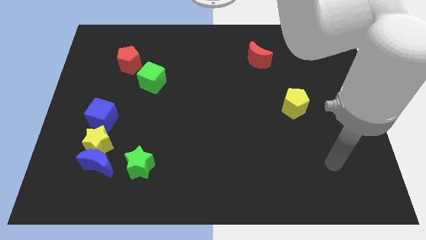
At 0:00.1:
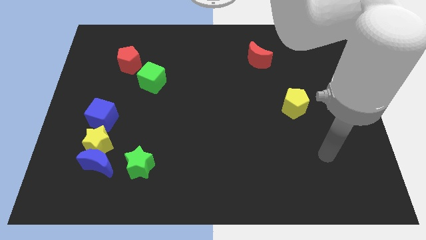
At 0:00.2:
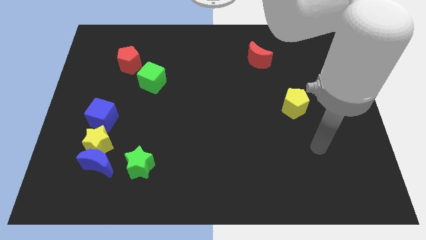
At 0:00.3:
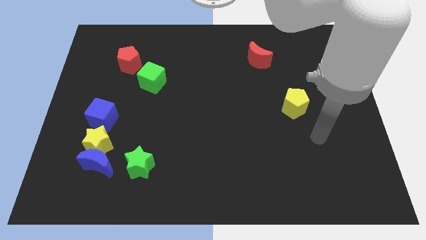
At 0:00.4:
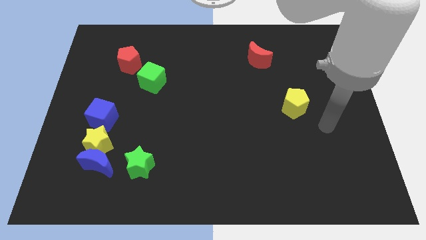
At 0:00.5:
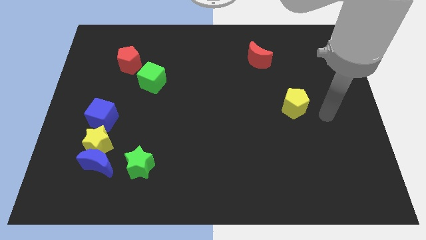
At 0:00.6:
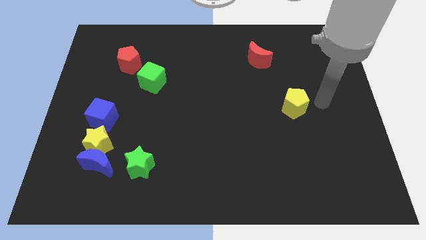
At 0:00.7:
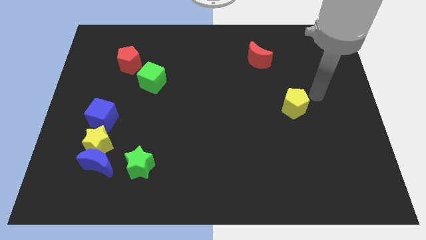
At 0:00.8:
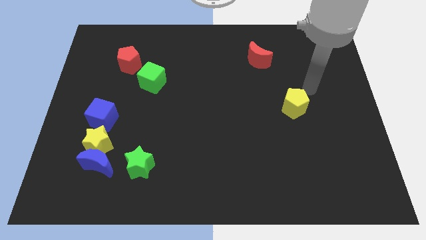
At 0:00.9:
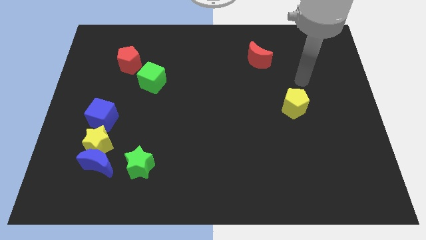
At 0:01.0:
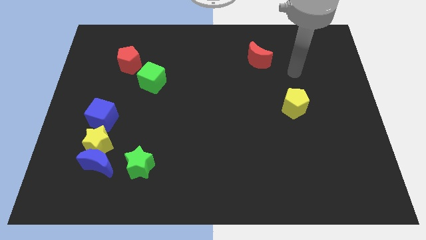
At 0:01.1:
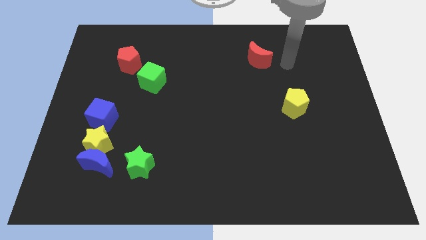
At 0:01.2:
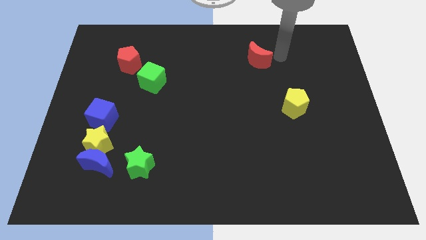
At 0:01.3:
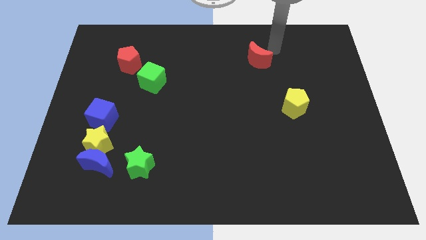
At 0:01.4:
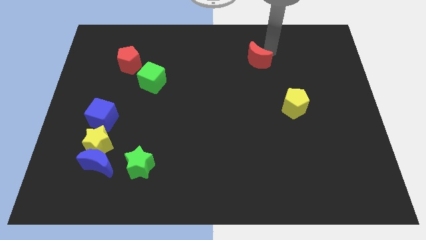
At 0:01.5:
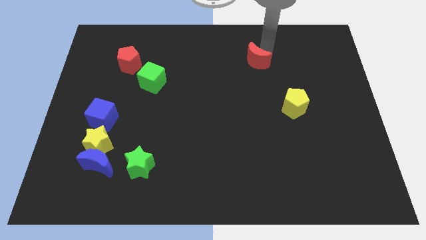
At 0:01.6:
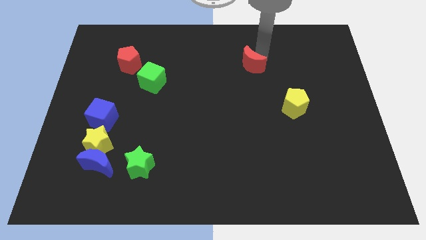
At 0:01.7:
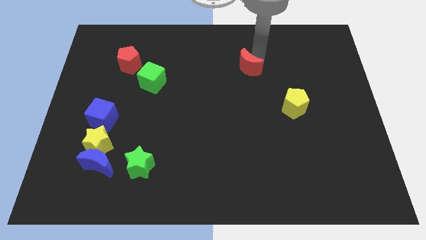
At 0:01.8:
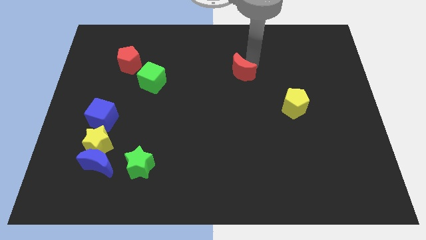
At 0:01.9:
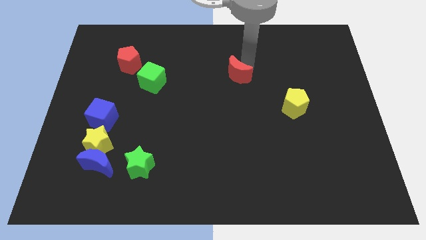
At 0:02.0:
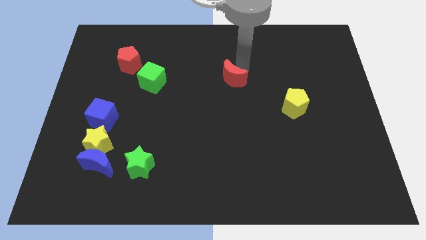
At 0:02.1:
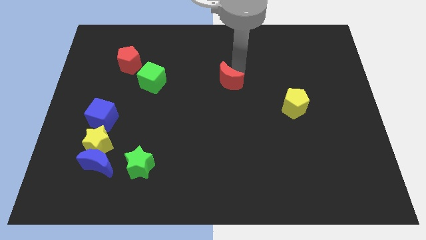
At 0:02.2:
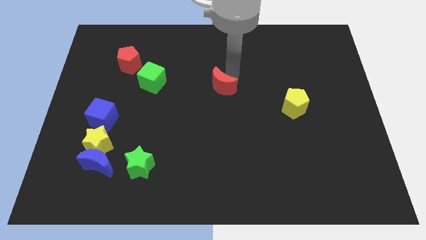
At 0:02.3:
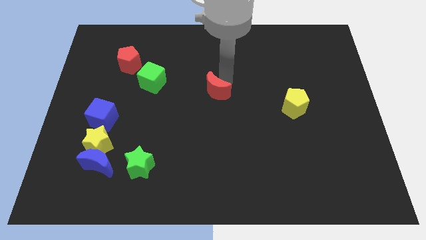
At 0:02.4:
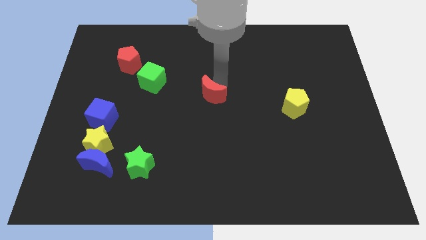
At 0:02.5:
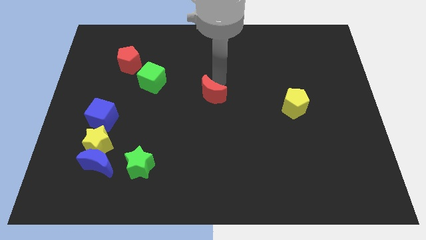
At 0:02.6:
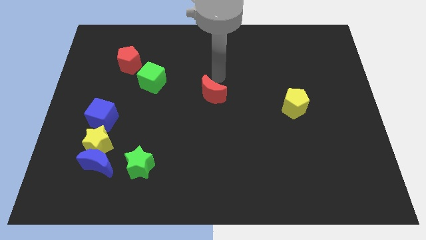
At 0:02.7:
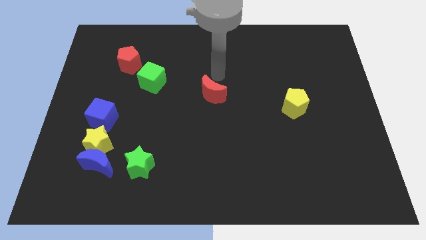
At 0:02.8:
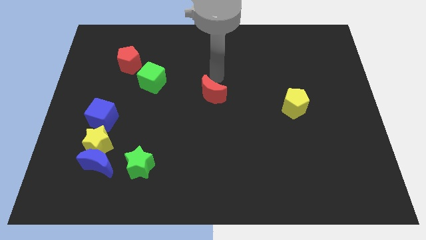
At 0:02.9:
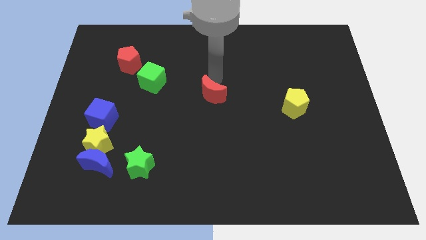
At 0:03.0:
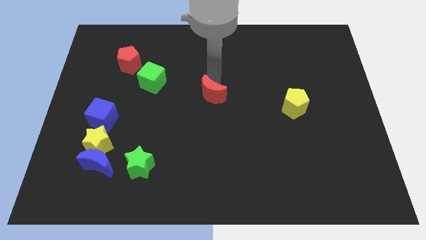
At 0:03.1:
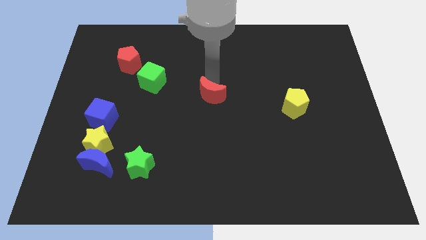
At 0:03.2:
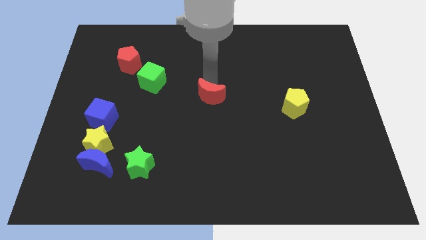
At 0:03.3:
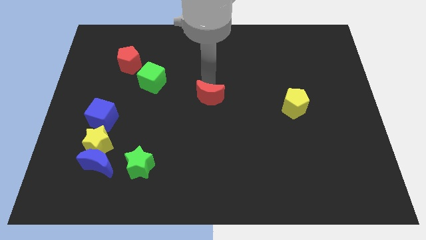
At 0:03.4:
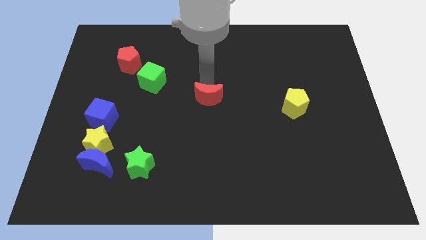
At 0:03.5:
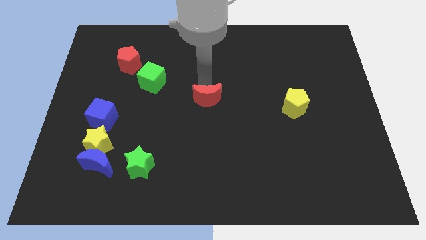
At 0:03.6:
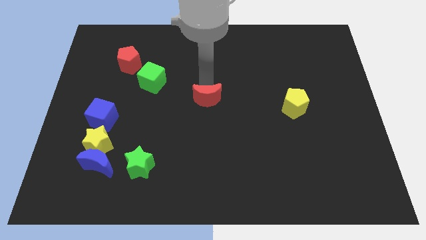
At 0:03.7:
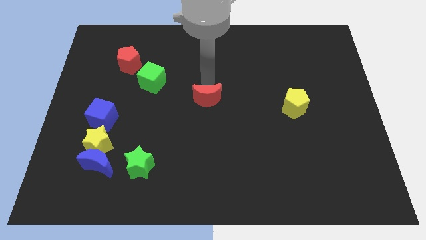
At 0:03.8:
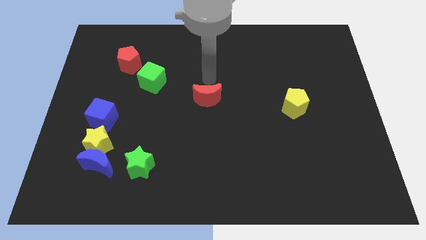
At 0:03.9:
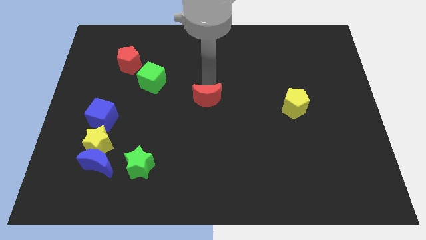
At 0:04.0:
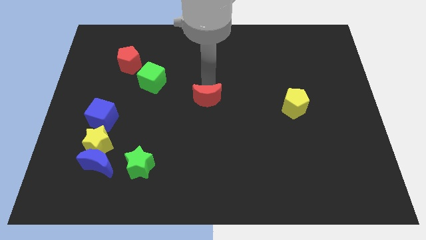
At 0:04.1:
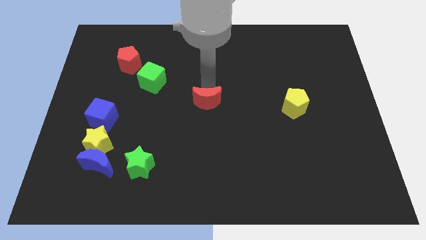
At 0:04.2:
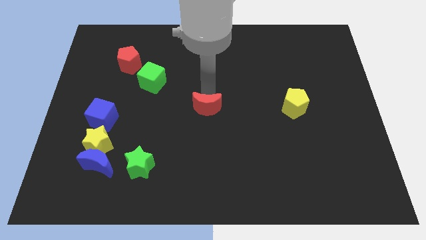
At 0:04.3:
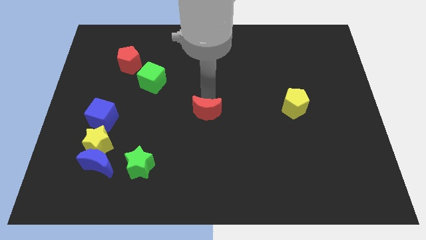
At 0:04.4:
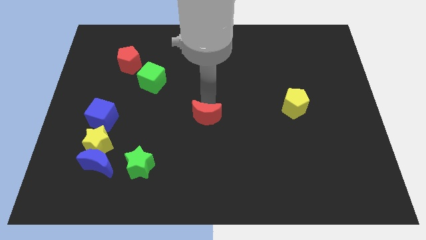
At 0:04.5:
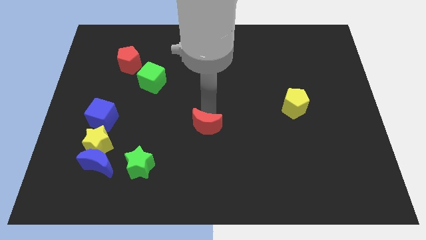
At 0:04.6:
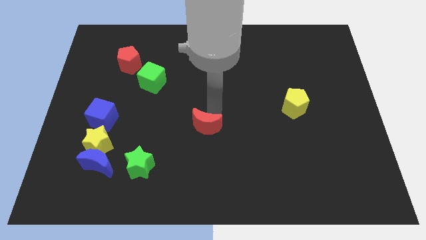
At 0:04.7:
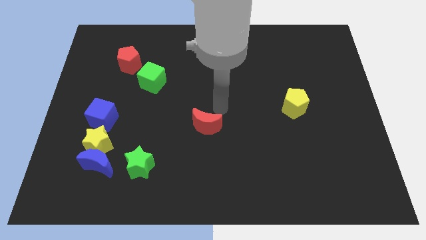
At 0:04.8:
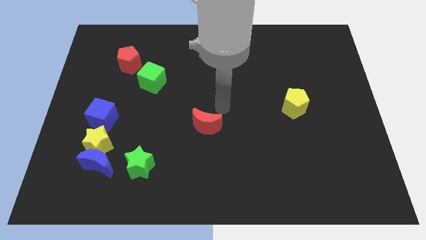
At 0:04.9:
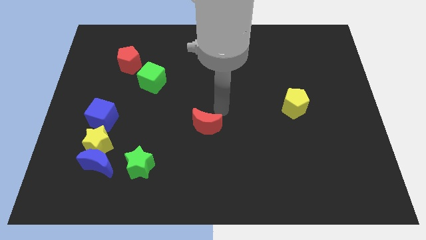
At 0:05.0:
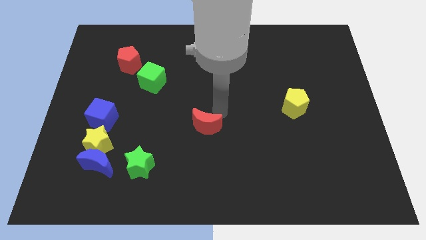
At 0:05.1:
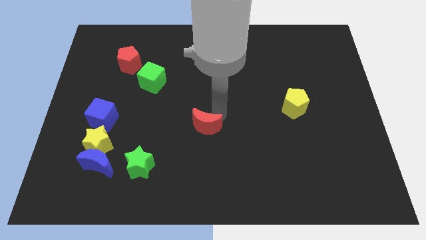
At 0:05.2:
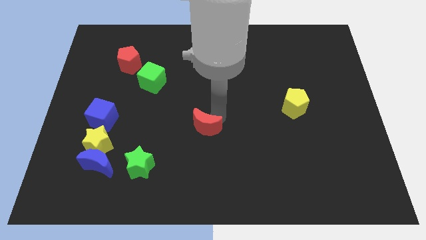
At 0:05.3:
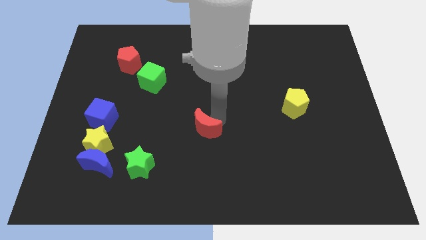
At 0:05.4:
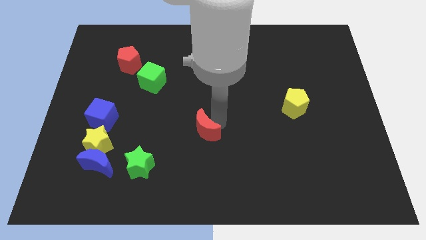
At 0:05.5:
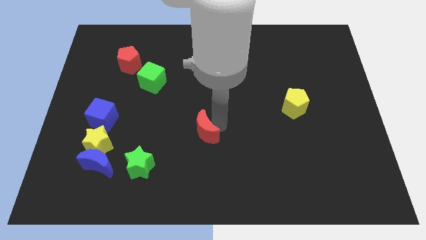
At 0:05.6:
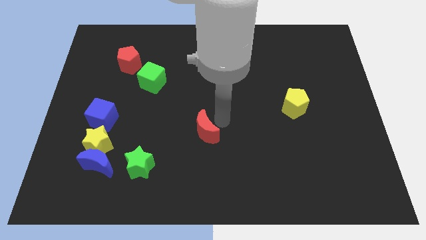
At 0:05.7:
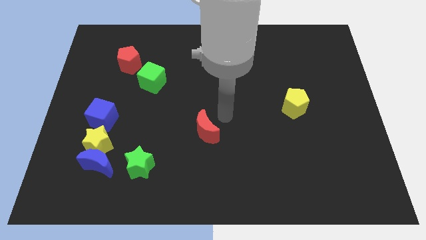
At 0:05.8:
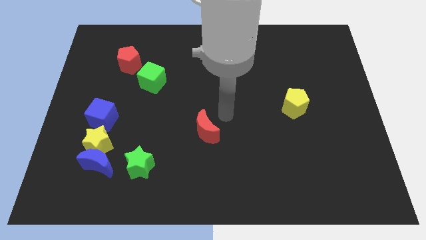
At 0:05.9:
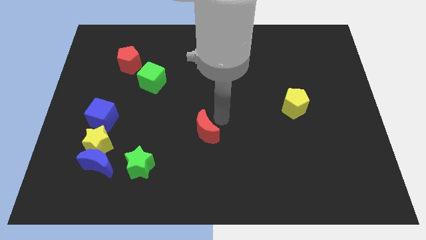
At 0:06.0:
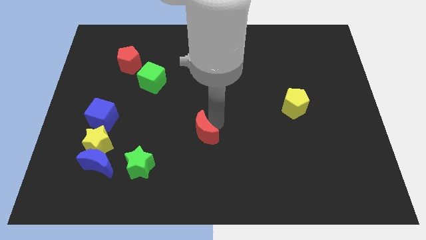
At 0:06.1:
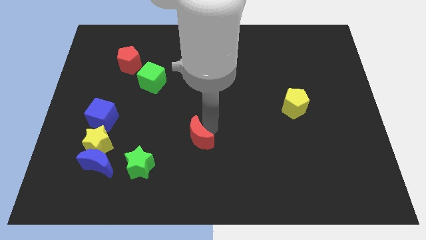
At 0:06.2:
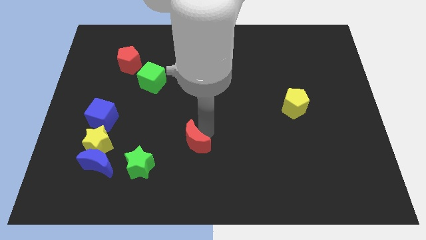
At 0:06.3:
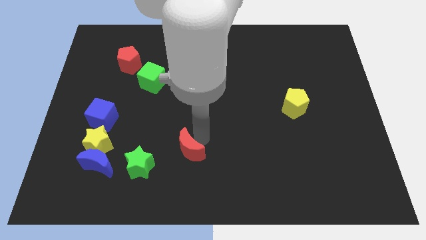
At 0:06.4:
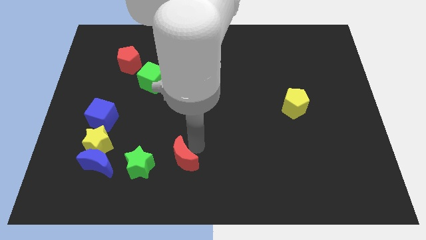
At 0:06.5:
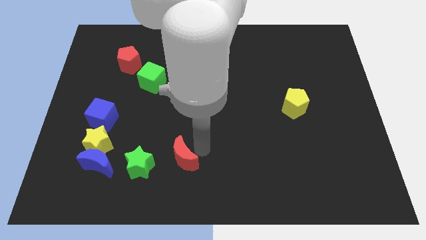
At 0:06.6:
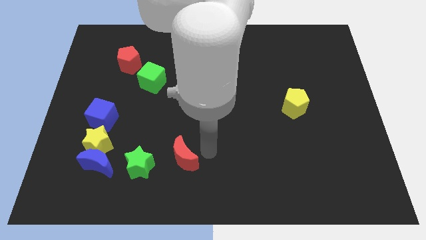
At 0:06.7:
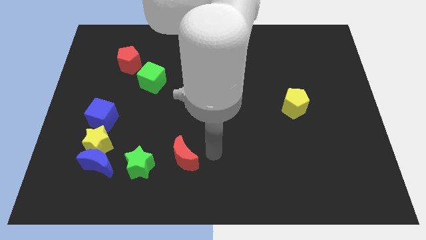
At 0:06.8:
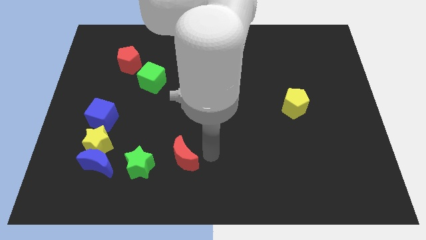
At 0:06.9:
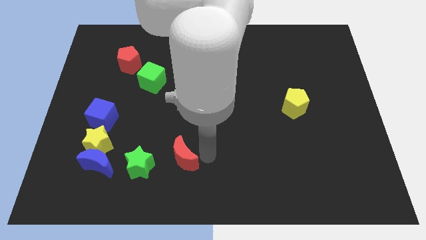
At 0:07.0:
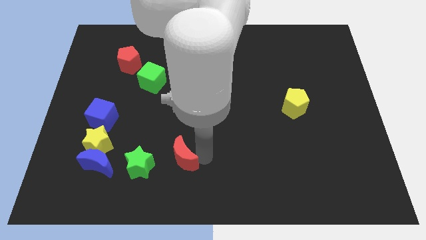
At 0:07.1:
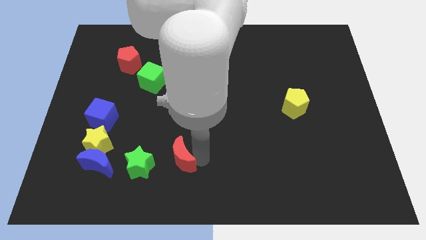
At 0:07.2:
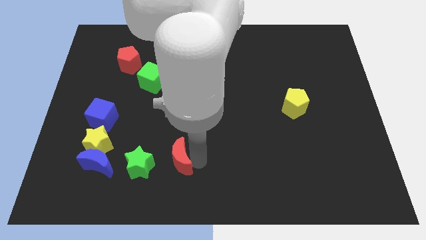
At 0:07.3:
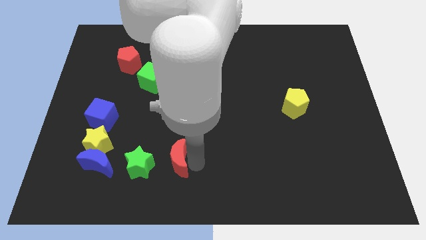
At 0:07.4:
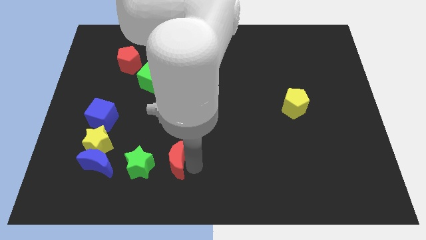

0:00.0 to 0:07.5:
slide the red moon right of the blue moon
